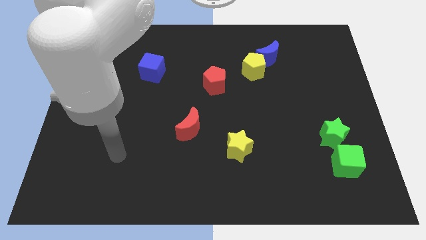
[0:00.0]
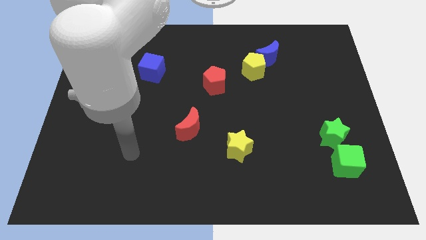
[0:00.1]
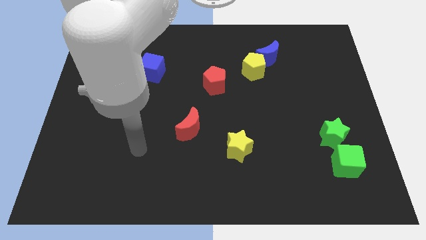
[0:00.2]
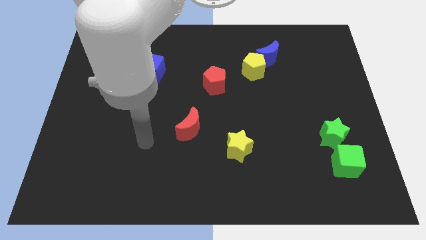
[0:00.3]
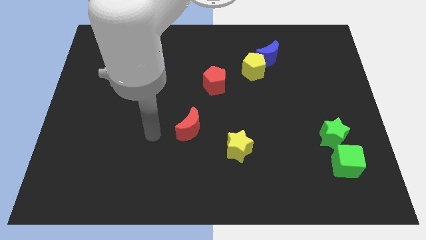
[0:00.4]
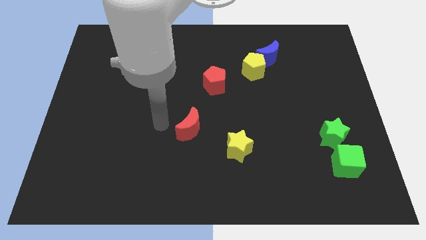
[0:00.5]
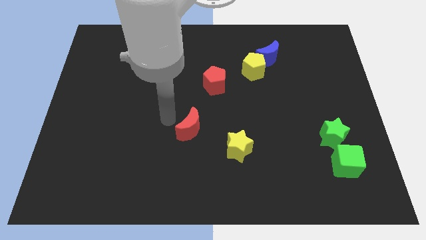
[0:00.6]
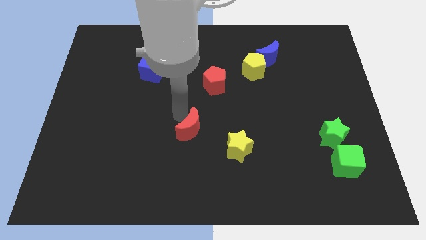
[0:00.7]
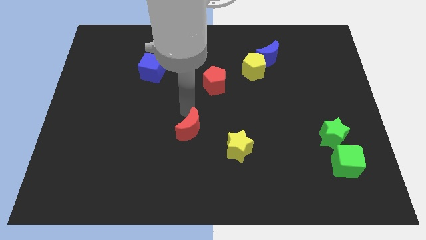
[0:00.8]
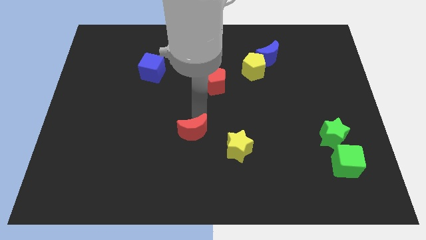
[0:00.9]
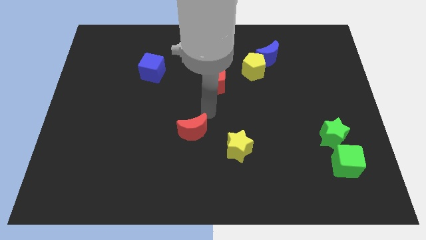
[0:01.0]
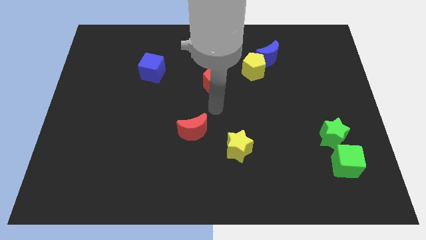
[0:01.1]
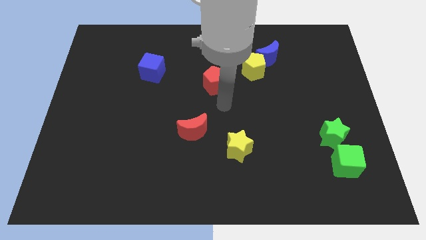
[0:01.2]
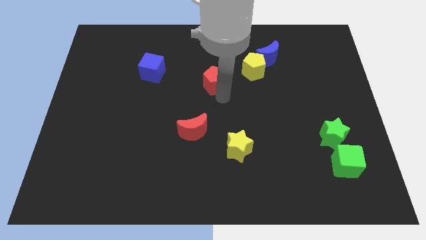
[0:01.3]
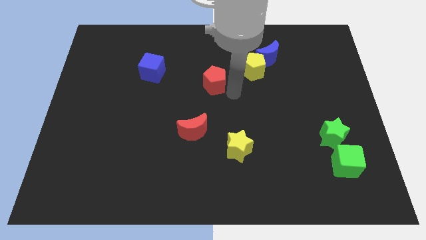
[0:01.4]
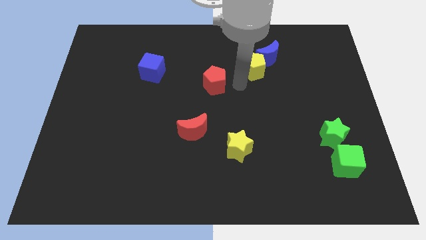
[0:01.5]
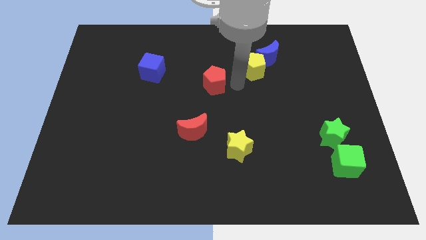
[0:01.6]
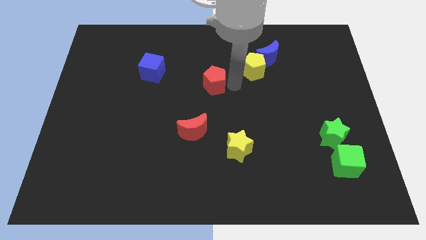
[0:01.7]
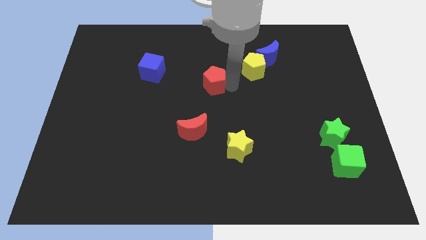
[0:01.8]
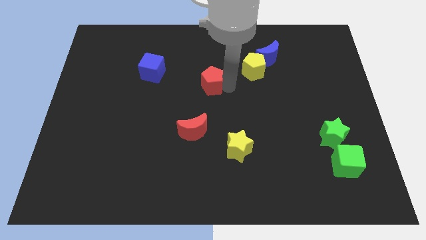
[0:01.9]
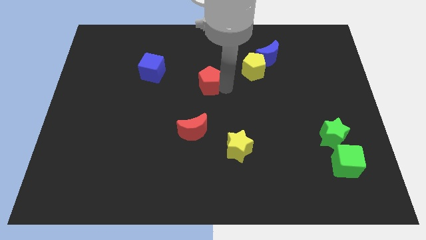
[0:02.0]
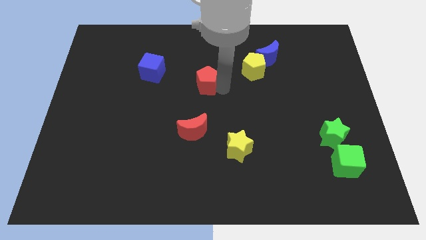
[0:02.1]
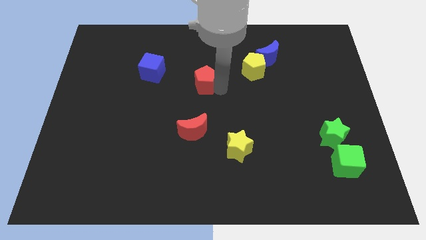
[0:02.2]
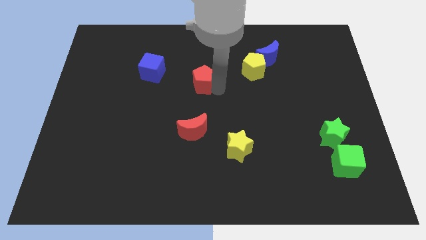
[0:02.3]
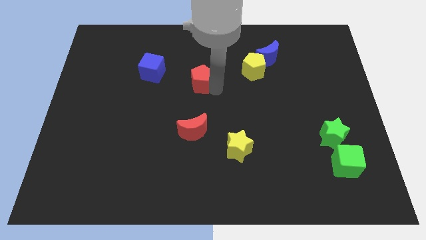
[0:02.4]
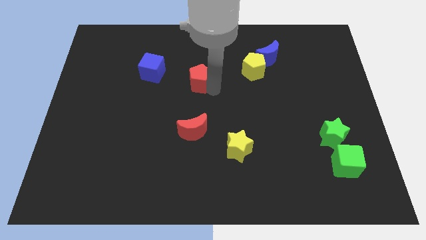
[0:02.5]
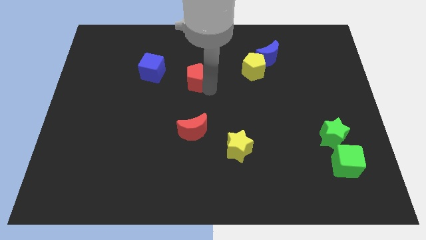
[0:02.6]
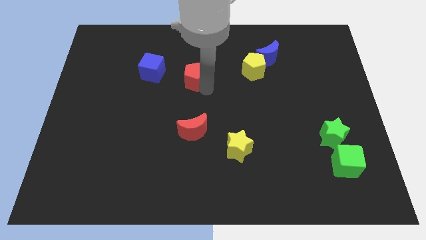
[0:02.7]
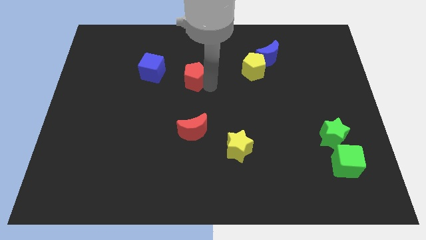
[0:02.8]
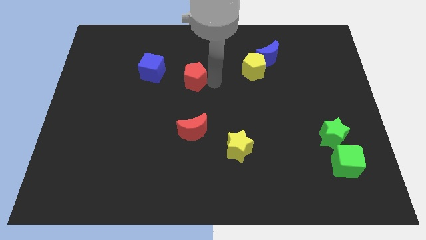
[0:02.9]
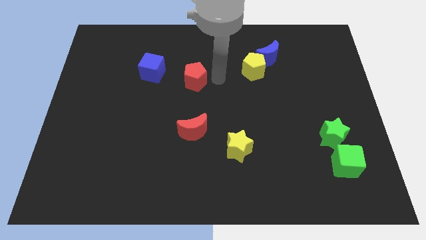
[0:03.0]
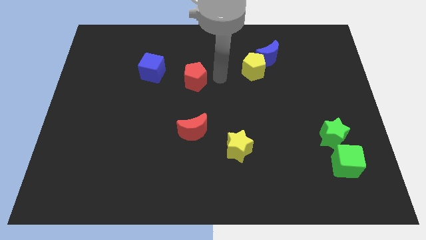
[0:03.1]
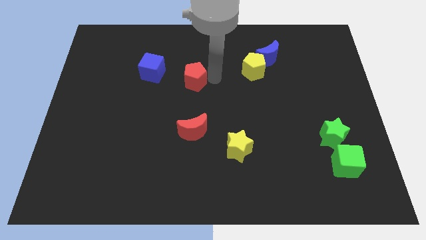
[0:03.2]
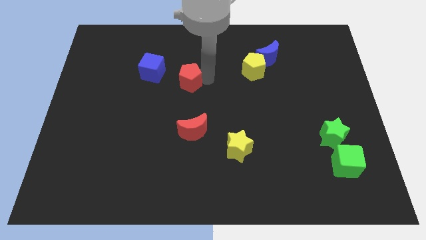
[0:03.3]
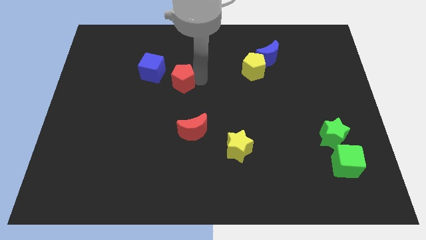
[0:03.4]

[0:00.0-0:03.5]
move the red pentagon a little left

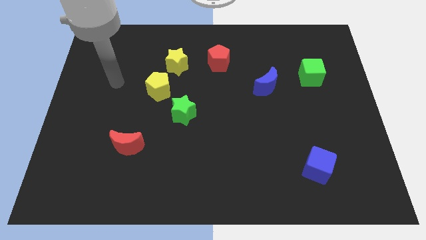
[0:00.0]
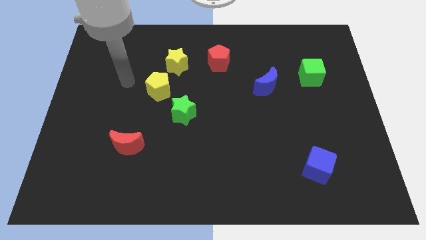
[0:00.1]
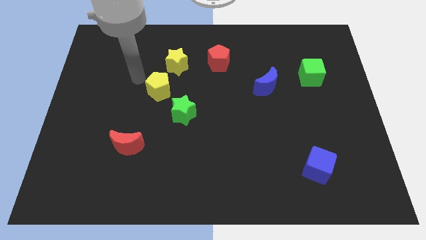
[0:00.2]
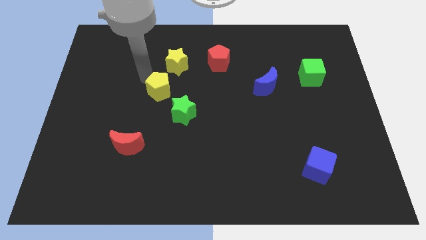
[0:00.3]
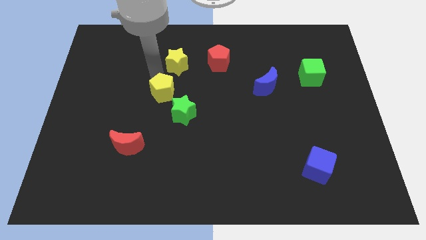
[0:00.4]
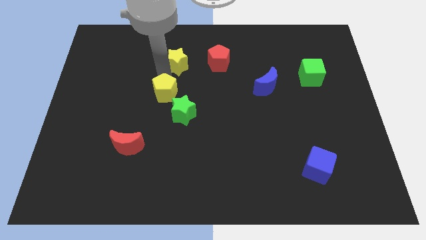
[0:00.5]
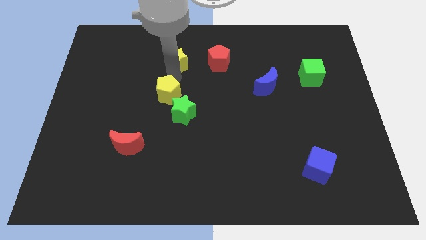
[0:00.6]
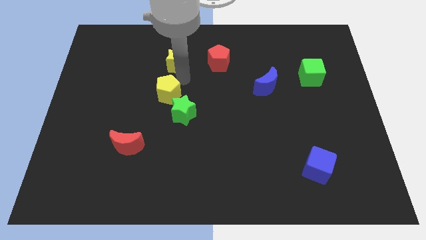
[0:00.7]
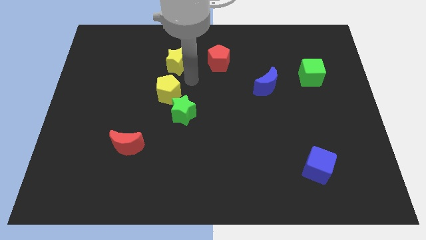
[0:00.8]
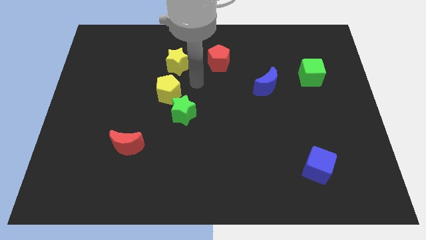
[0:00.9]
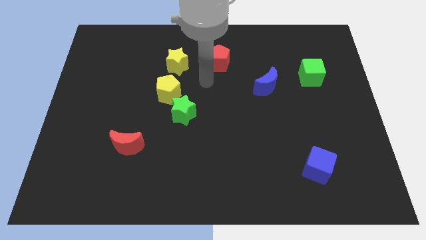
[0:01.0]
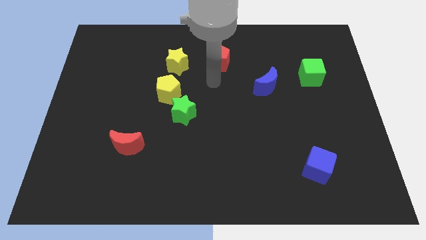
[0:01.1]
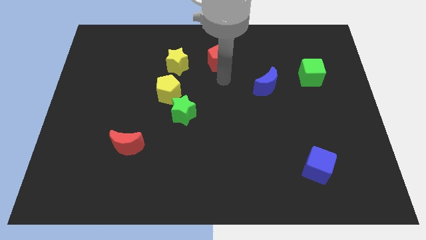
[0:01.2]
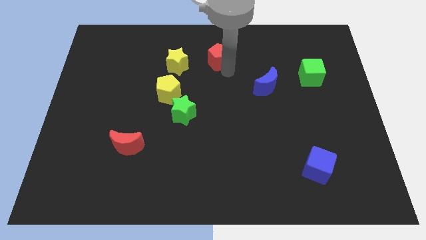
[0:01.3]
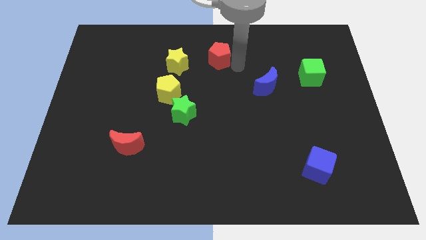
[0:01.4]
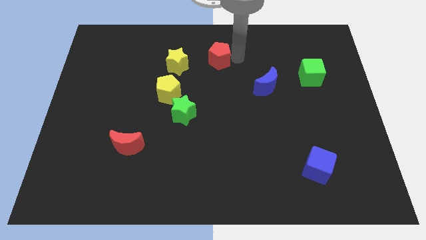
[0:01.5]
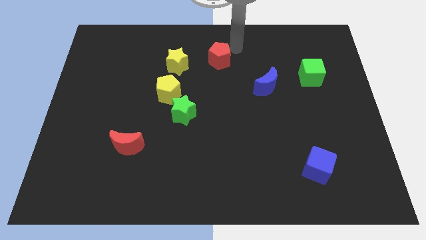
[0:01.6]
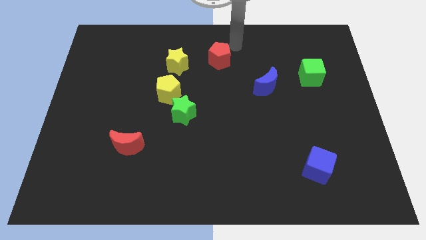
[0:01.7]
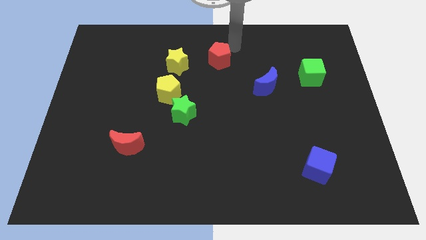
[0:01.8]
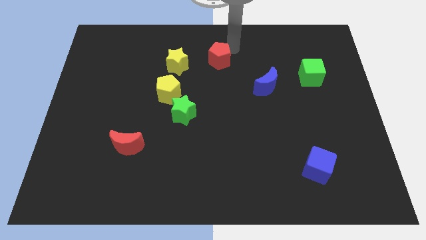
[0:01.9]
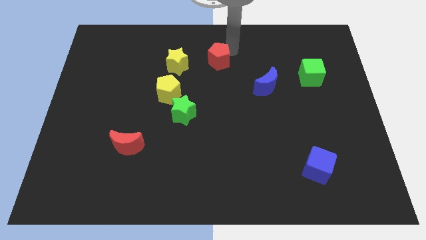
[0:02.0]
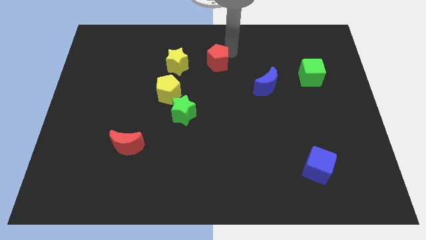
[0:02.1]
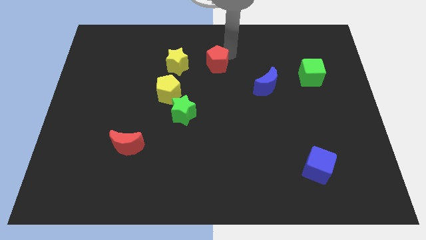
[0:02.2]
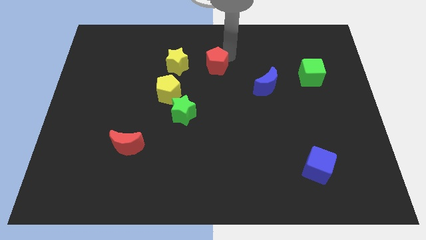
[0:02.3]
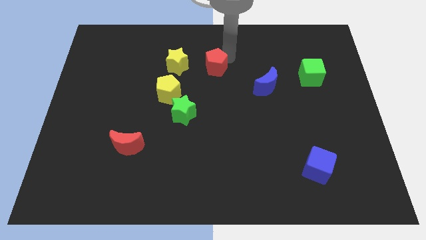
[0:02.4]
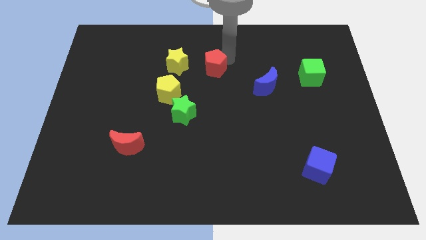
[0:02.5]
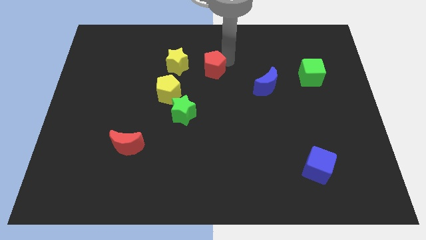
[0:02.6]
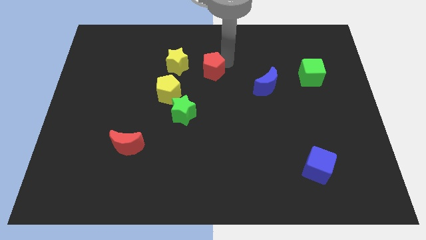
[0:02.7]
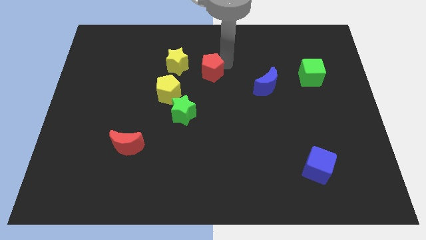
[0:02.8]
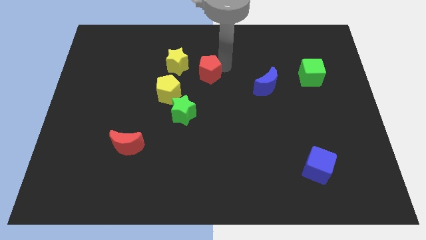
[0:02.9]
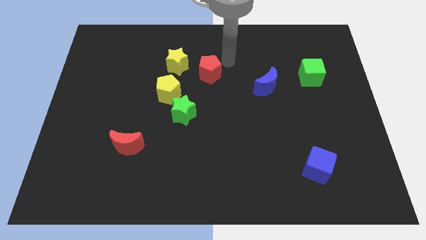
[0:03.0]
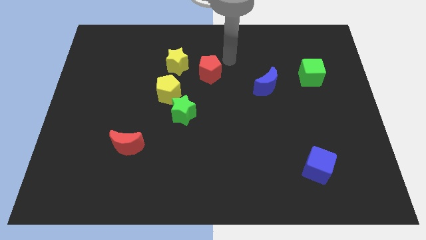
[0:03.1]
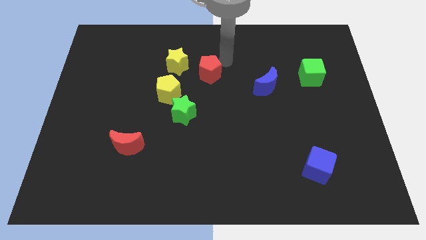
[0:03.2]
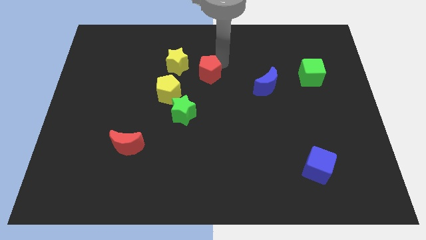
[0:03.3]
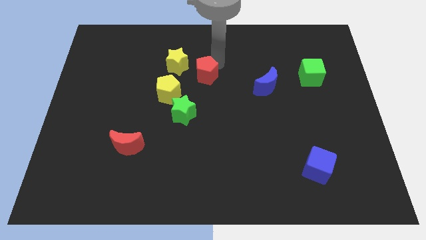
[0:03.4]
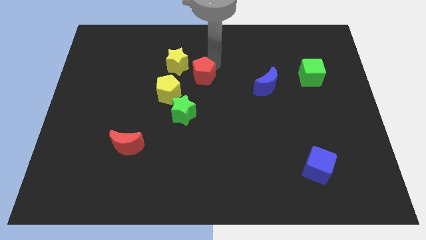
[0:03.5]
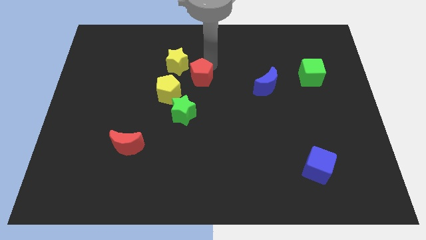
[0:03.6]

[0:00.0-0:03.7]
slightly push the red pentagon diagonally down and left

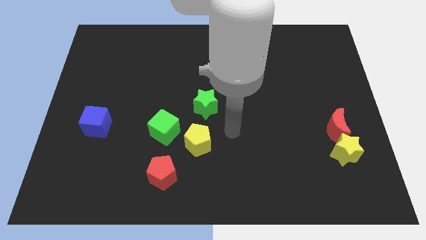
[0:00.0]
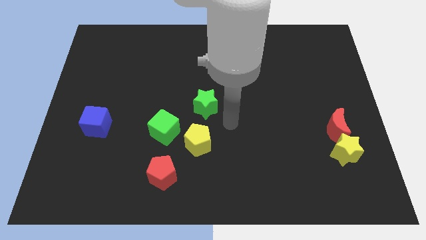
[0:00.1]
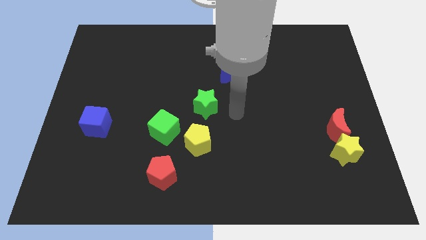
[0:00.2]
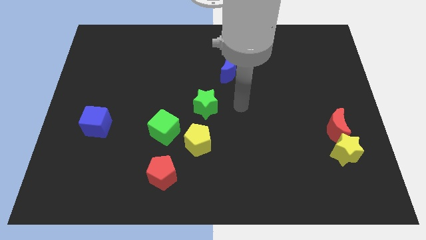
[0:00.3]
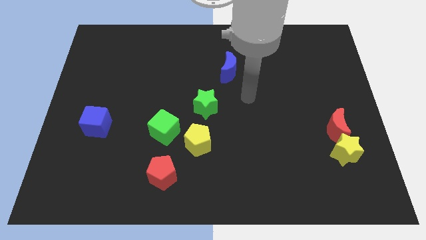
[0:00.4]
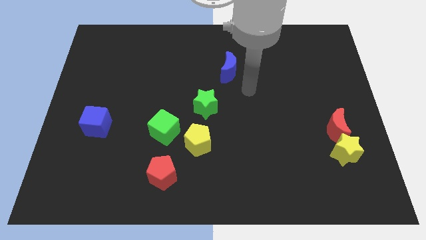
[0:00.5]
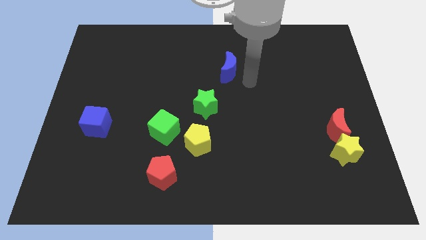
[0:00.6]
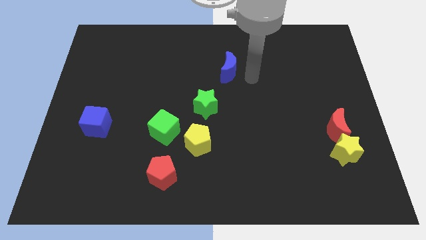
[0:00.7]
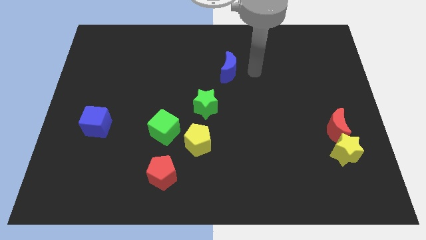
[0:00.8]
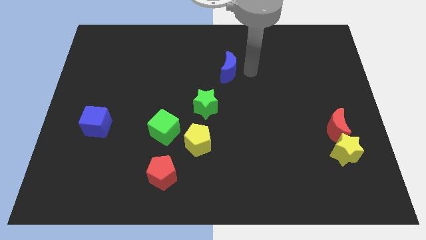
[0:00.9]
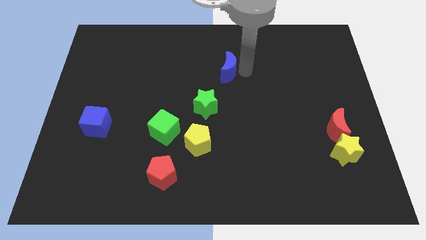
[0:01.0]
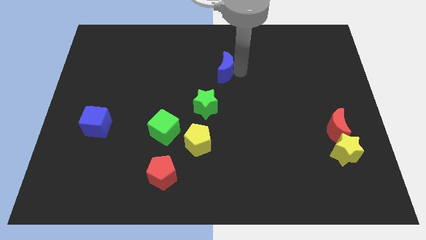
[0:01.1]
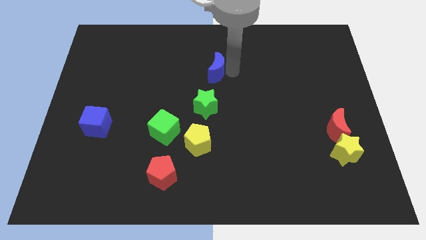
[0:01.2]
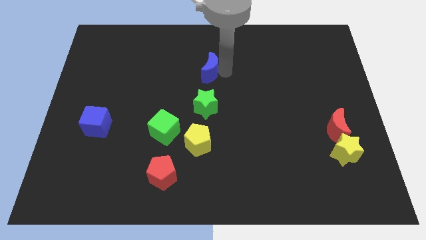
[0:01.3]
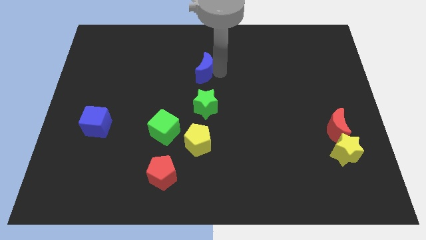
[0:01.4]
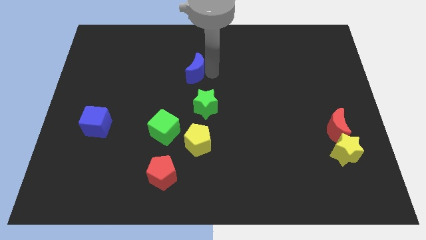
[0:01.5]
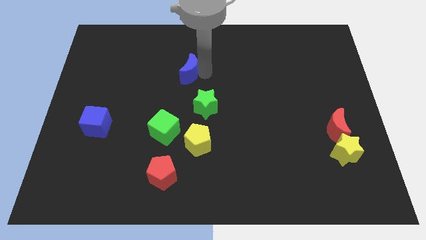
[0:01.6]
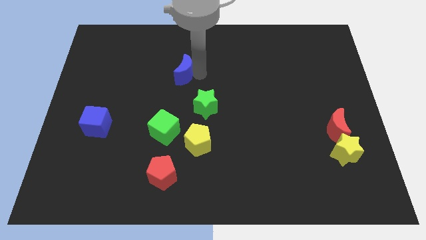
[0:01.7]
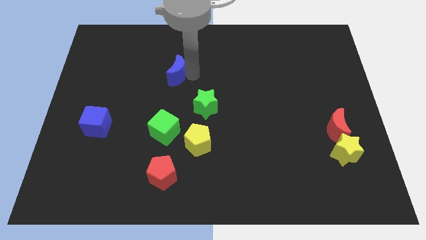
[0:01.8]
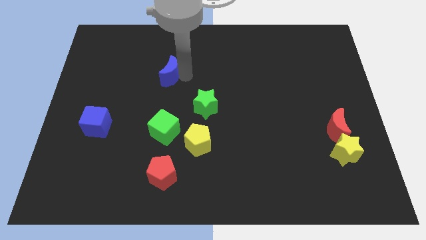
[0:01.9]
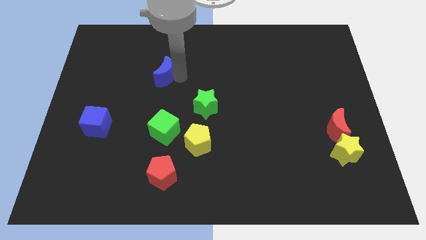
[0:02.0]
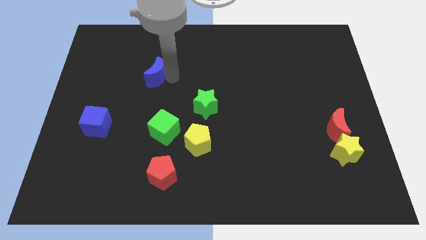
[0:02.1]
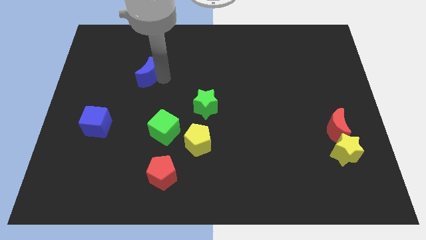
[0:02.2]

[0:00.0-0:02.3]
move the blue moon left
